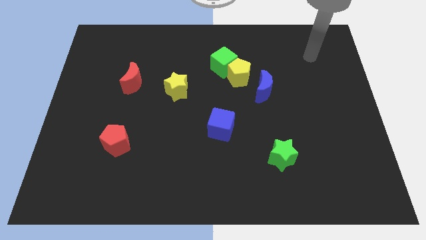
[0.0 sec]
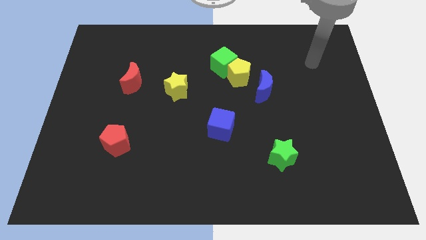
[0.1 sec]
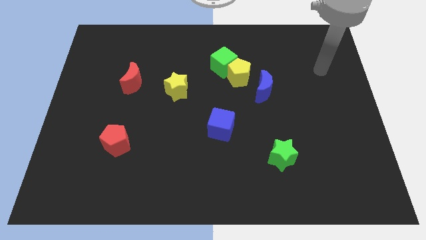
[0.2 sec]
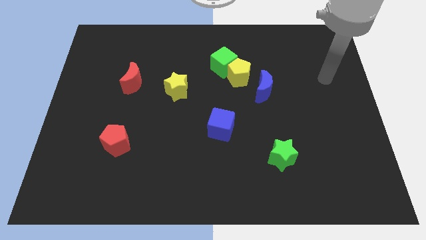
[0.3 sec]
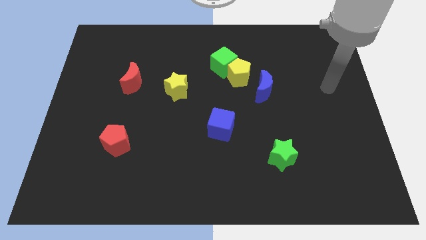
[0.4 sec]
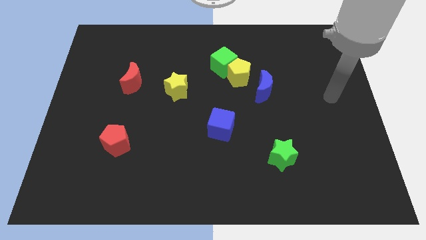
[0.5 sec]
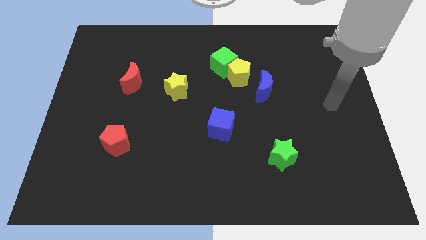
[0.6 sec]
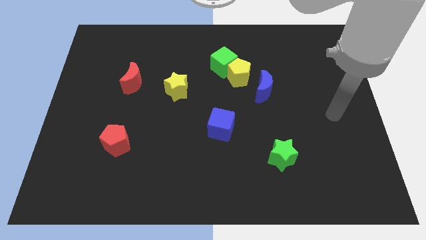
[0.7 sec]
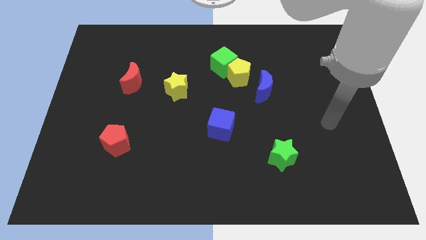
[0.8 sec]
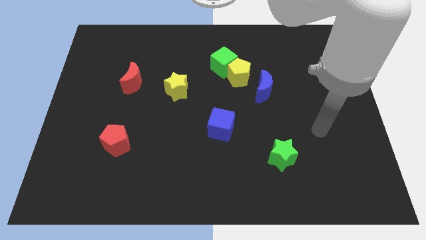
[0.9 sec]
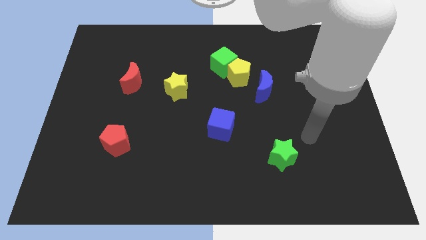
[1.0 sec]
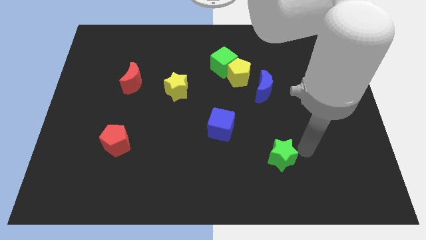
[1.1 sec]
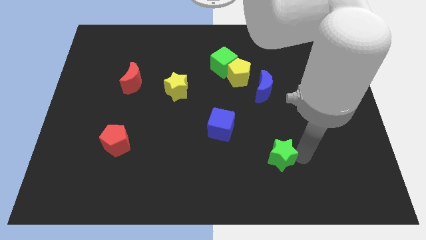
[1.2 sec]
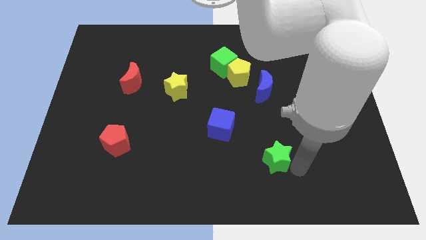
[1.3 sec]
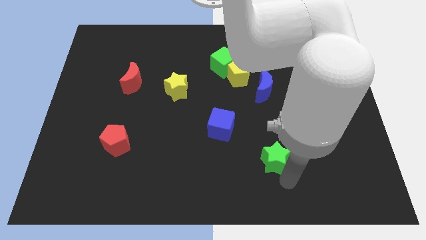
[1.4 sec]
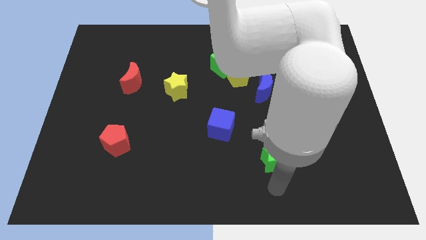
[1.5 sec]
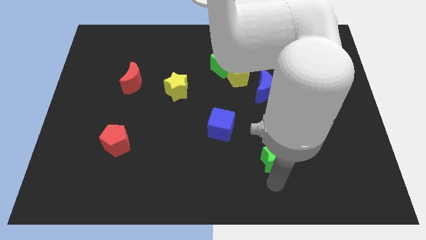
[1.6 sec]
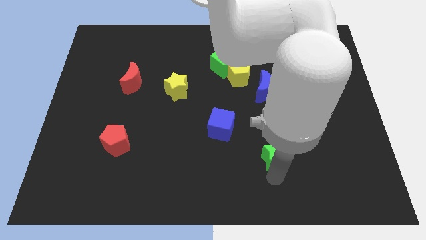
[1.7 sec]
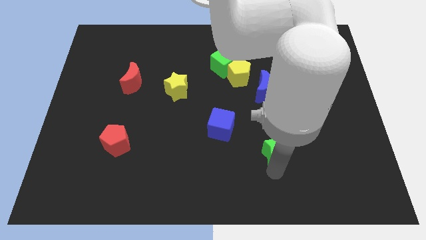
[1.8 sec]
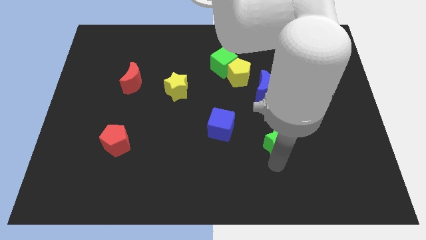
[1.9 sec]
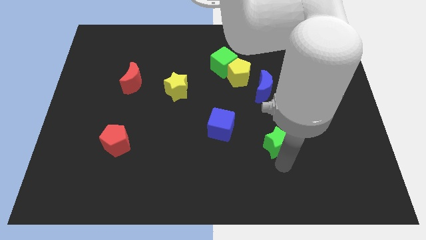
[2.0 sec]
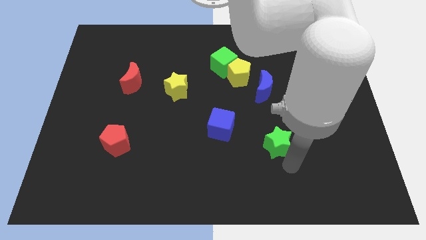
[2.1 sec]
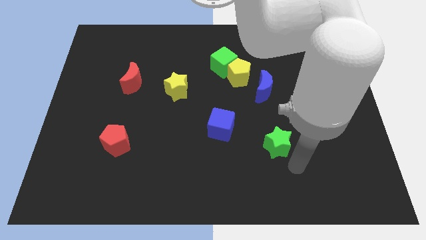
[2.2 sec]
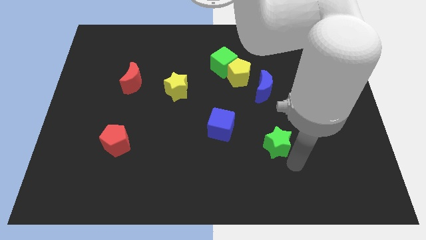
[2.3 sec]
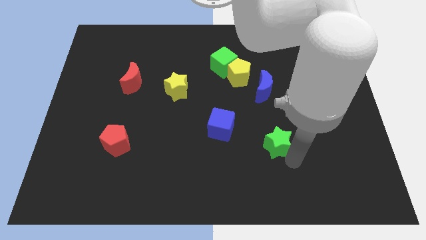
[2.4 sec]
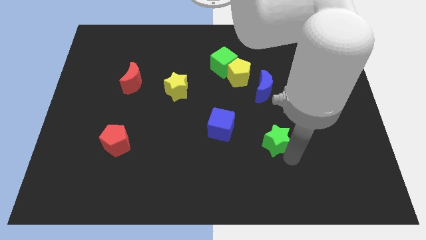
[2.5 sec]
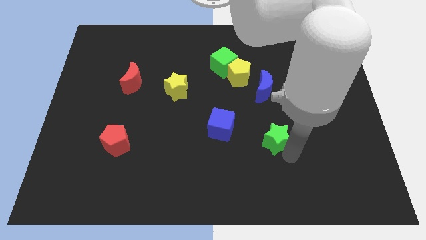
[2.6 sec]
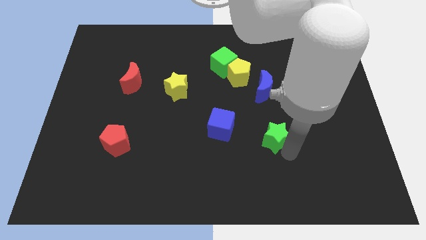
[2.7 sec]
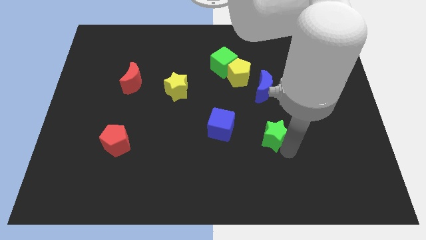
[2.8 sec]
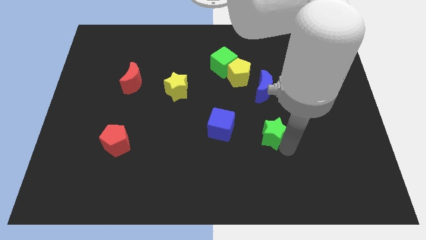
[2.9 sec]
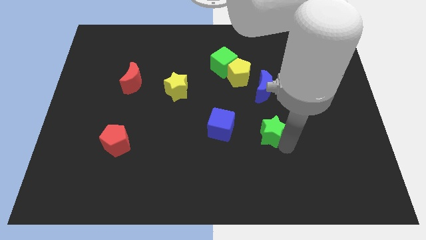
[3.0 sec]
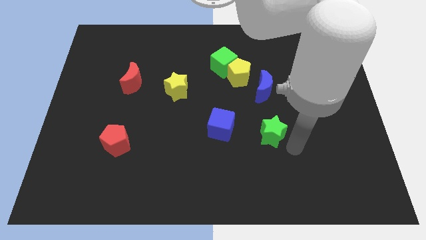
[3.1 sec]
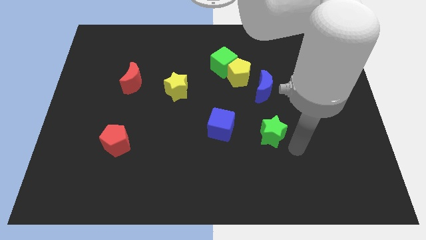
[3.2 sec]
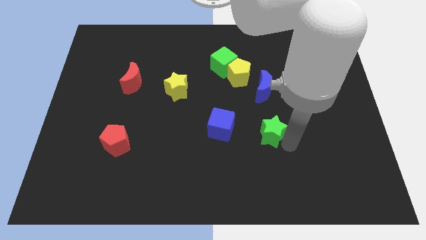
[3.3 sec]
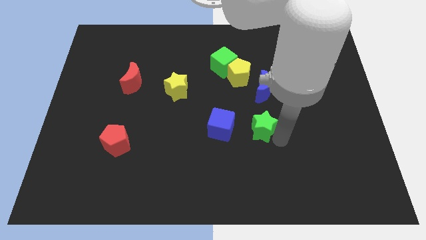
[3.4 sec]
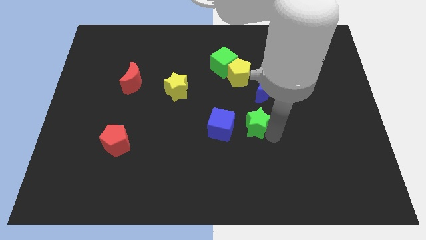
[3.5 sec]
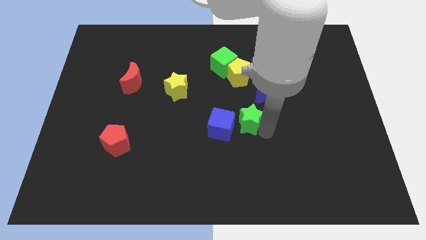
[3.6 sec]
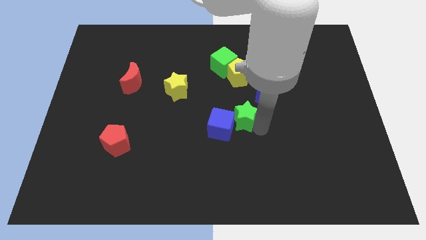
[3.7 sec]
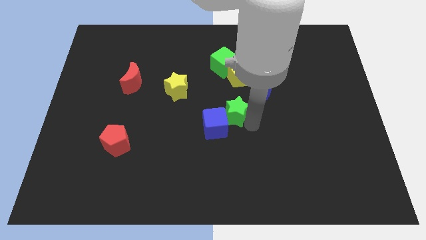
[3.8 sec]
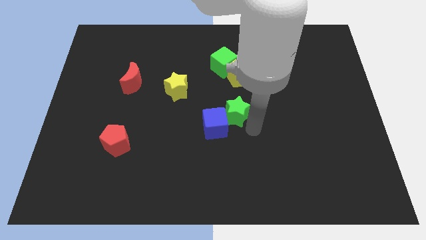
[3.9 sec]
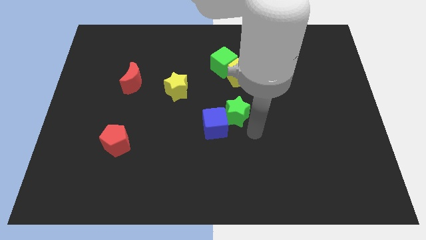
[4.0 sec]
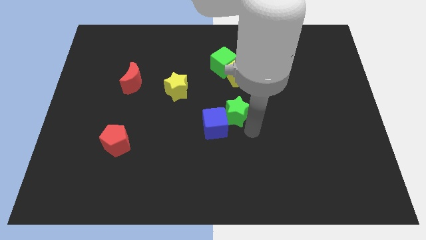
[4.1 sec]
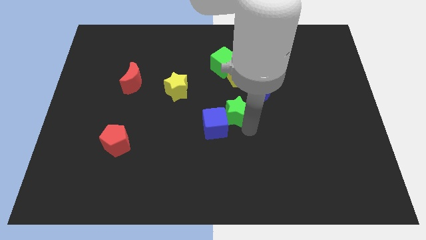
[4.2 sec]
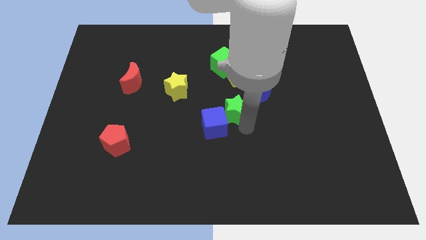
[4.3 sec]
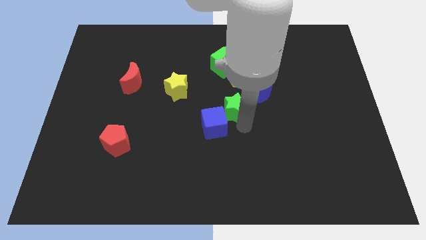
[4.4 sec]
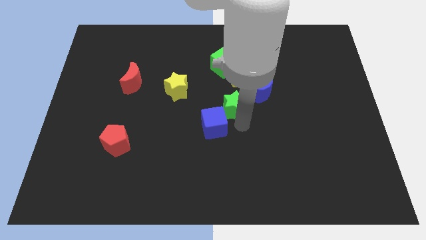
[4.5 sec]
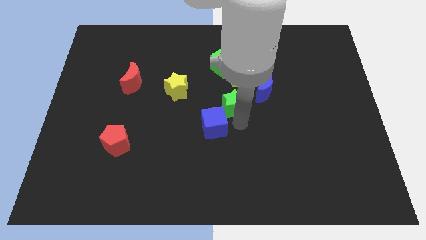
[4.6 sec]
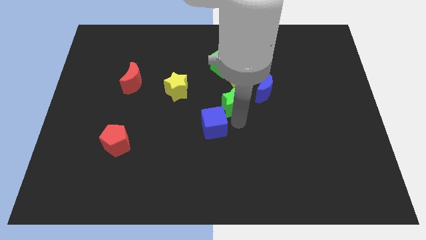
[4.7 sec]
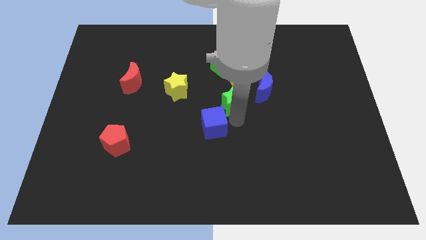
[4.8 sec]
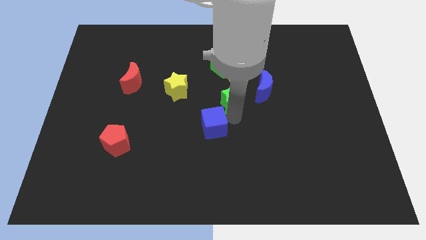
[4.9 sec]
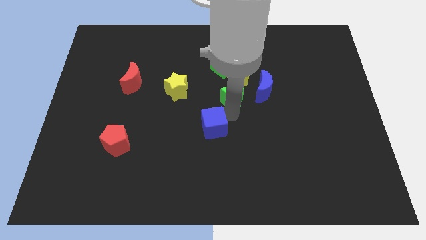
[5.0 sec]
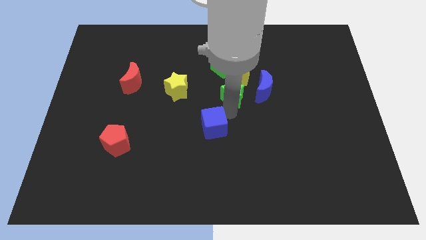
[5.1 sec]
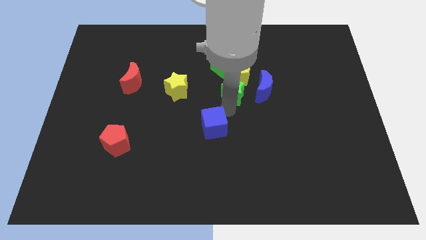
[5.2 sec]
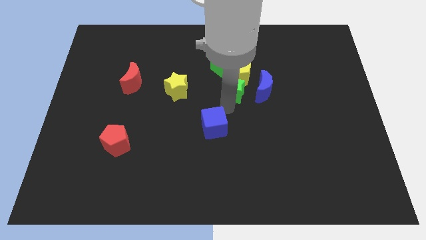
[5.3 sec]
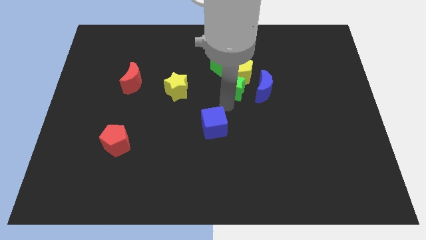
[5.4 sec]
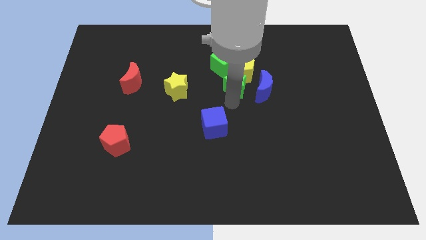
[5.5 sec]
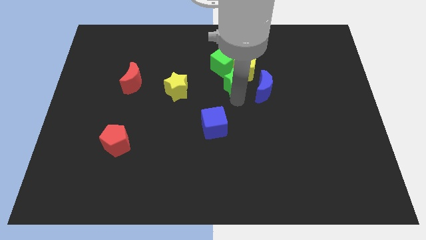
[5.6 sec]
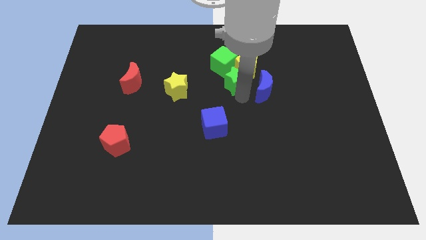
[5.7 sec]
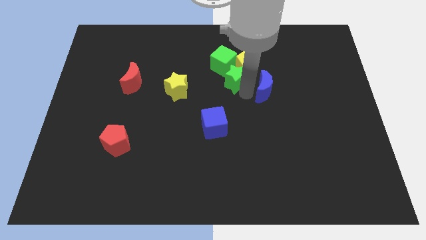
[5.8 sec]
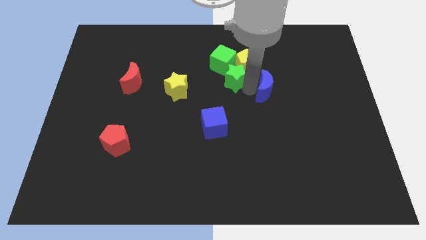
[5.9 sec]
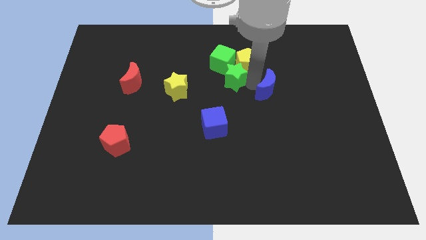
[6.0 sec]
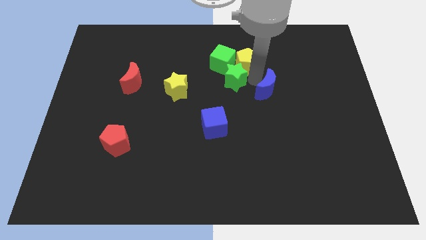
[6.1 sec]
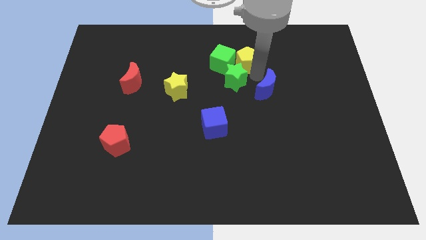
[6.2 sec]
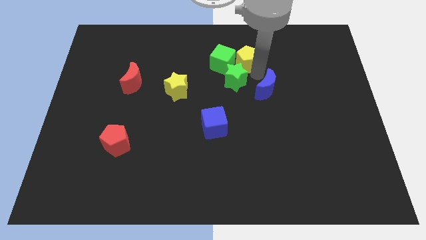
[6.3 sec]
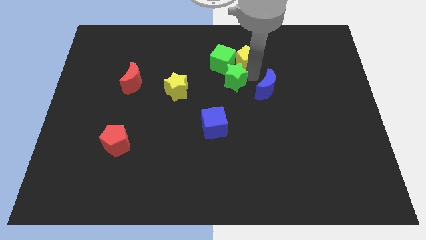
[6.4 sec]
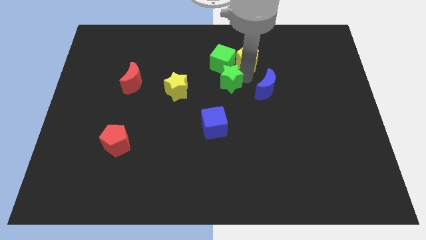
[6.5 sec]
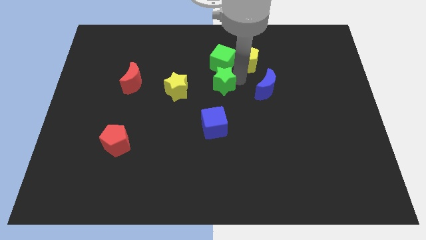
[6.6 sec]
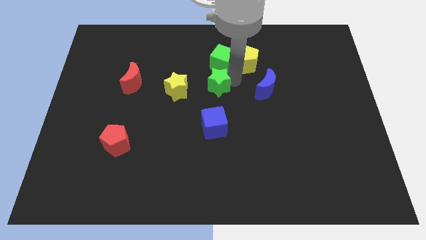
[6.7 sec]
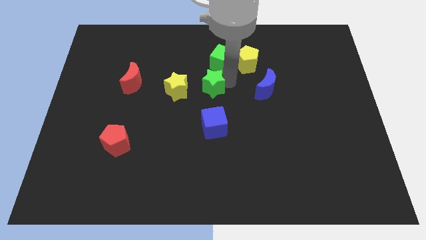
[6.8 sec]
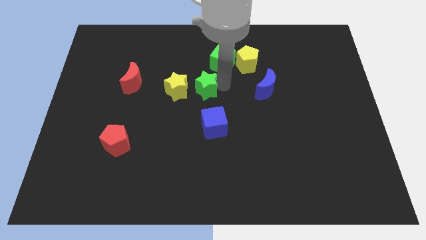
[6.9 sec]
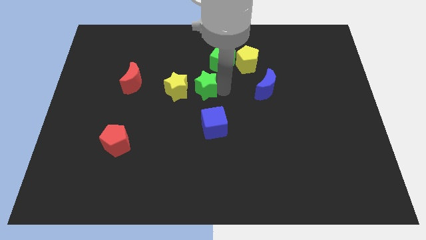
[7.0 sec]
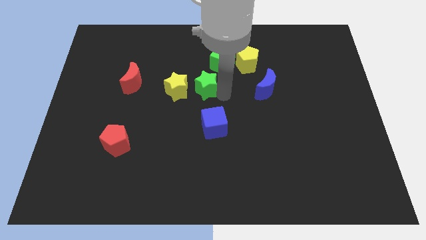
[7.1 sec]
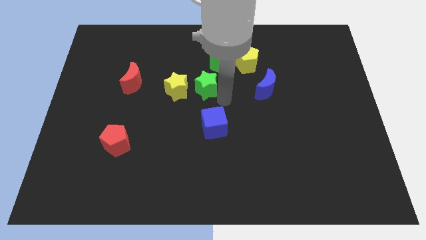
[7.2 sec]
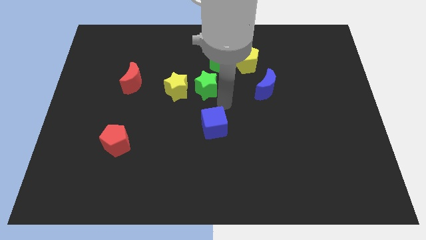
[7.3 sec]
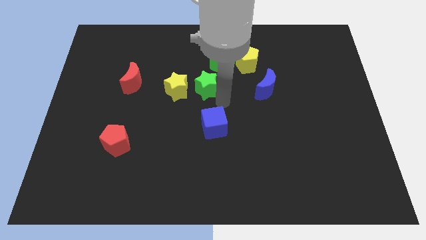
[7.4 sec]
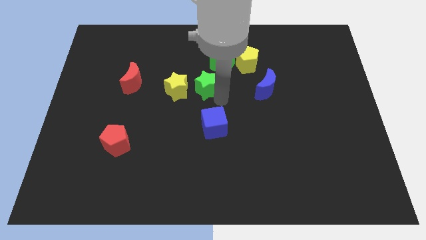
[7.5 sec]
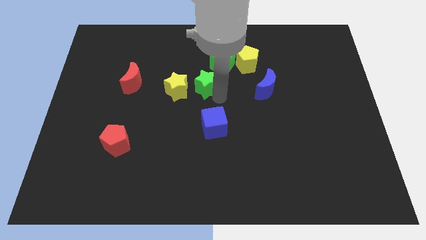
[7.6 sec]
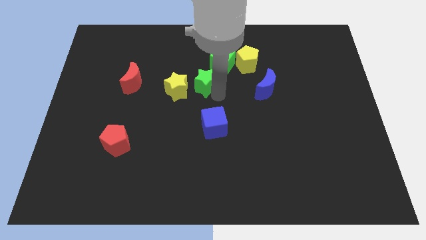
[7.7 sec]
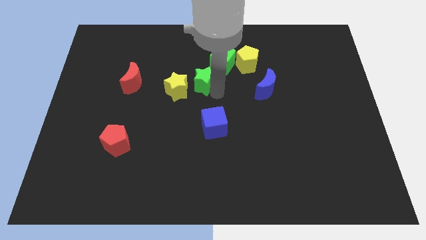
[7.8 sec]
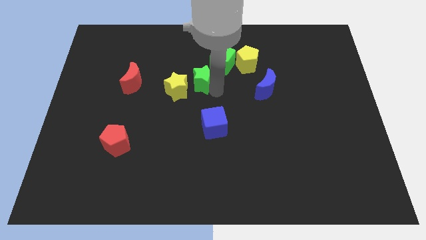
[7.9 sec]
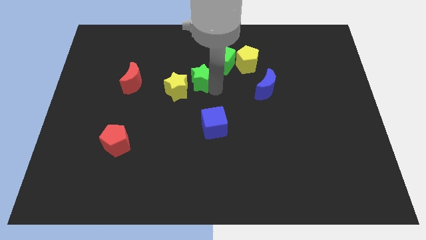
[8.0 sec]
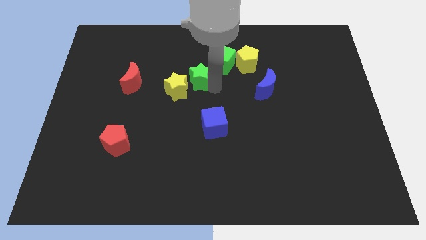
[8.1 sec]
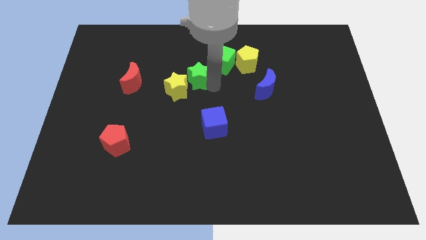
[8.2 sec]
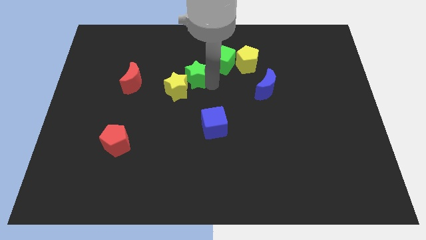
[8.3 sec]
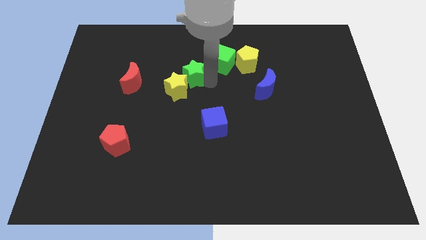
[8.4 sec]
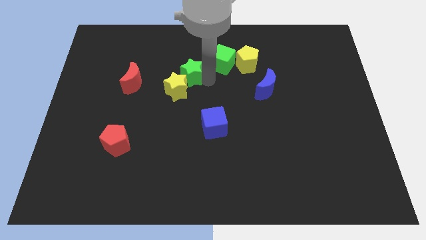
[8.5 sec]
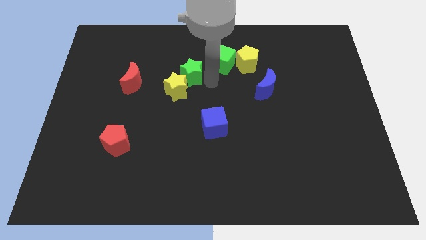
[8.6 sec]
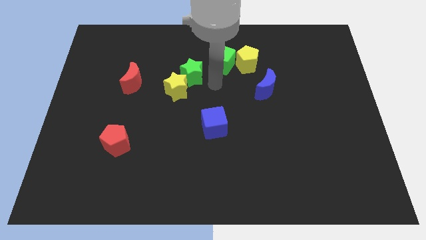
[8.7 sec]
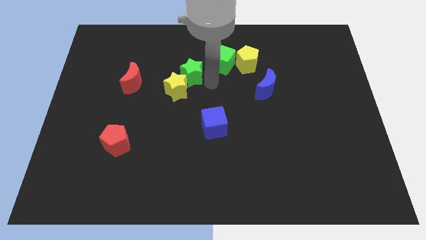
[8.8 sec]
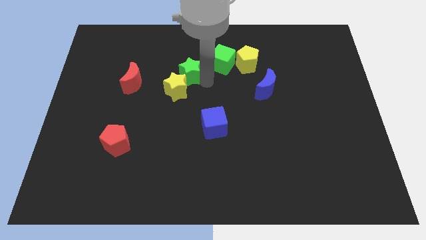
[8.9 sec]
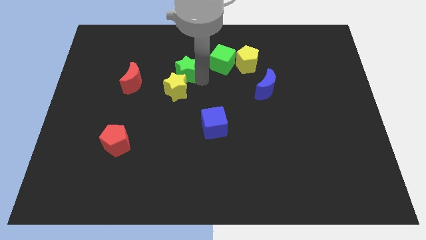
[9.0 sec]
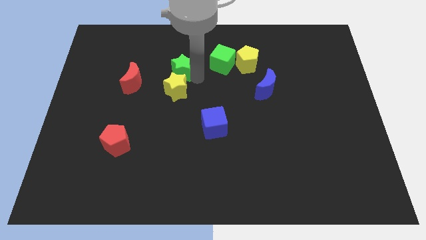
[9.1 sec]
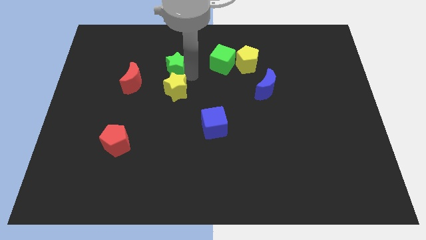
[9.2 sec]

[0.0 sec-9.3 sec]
slide the green star to the top right side of the red moon
